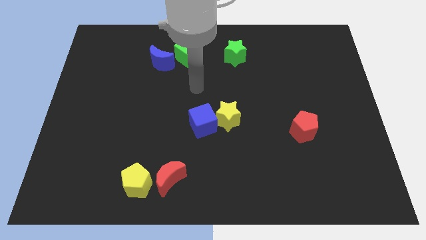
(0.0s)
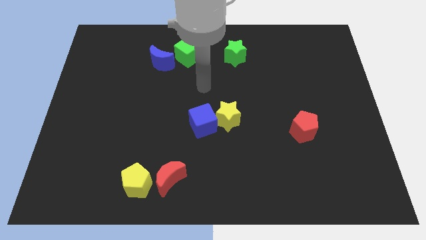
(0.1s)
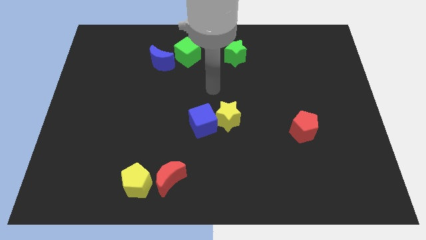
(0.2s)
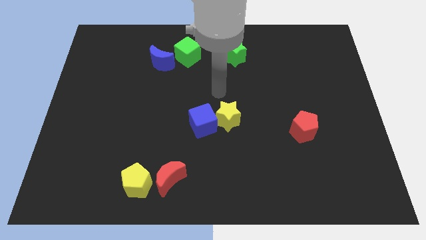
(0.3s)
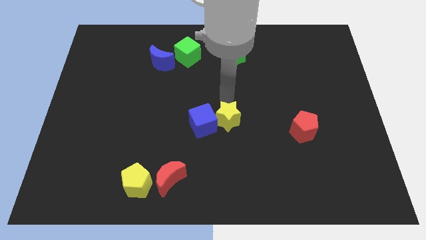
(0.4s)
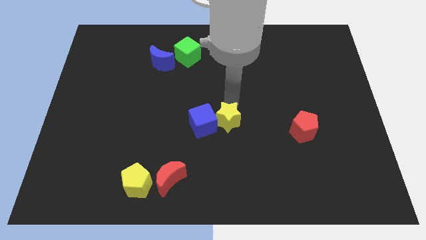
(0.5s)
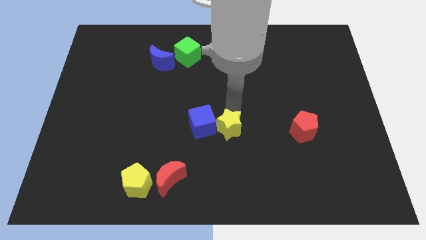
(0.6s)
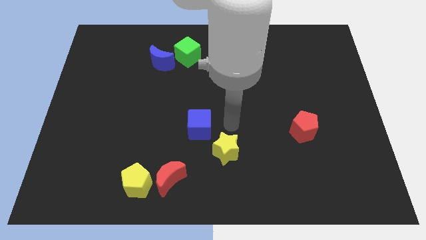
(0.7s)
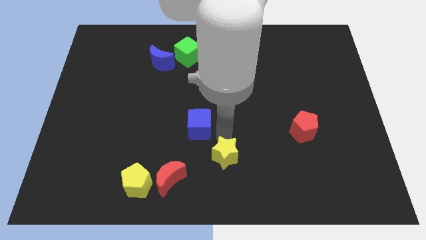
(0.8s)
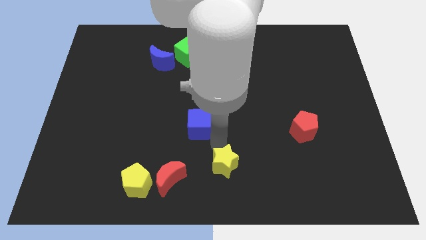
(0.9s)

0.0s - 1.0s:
move the blue cube away from the yellow star

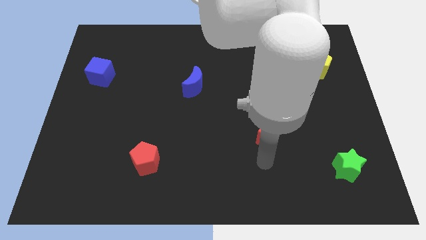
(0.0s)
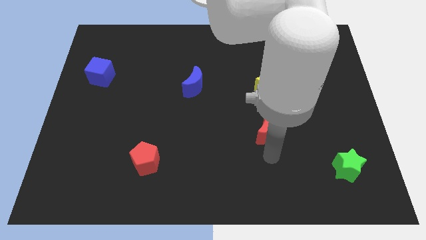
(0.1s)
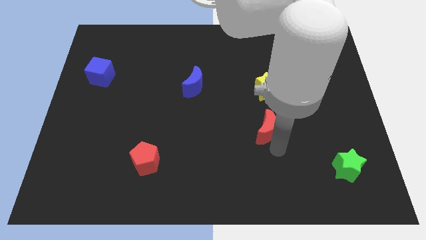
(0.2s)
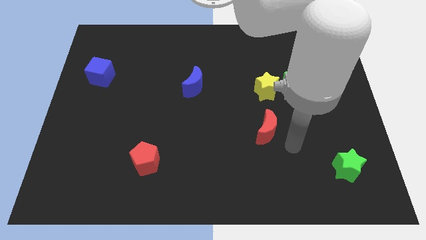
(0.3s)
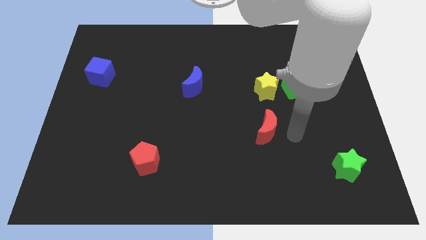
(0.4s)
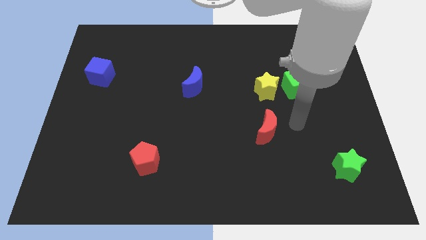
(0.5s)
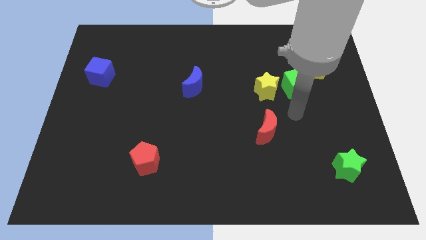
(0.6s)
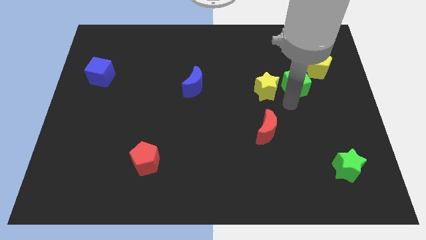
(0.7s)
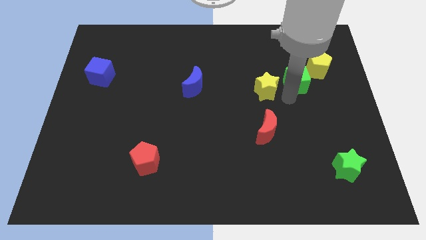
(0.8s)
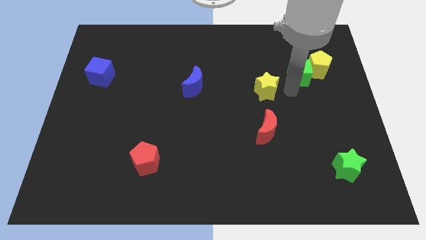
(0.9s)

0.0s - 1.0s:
pull the yellow star apart from the green cube

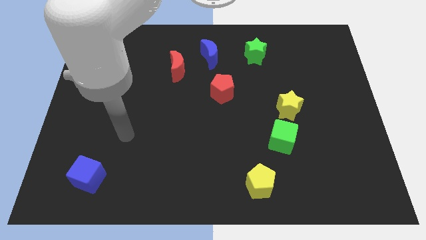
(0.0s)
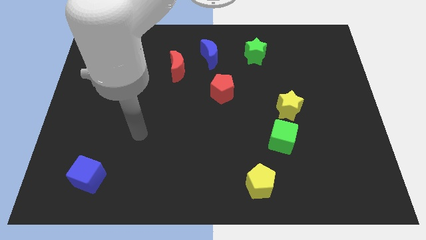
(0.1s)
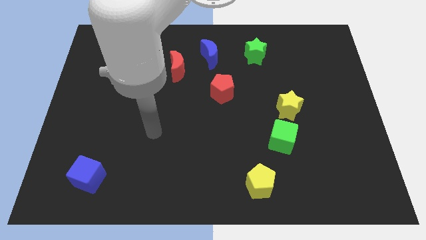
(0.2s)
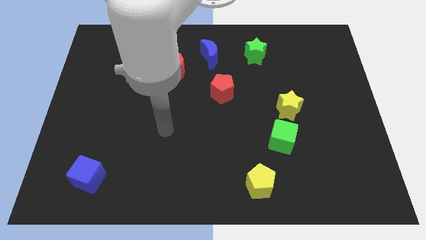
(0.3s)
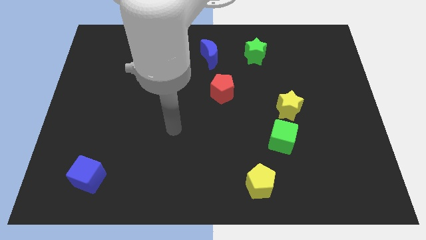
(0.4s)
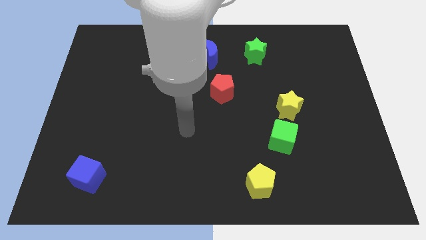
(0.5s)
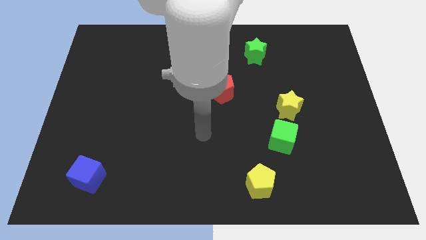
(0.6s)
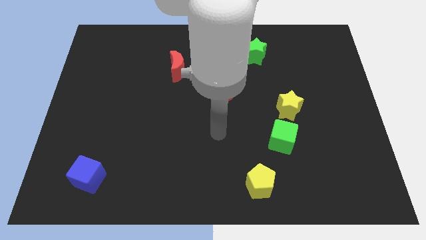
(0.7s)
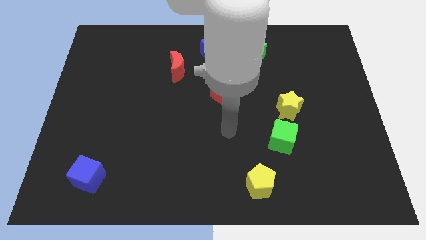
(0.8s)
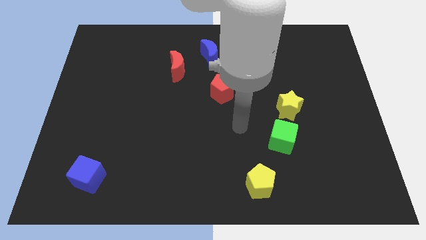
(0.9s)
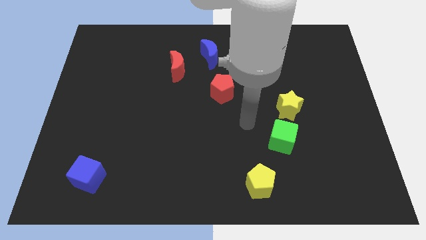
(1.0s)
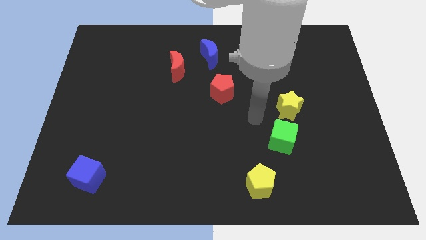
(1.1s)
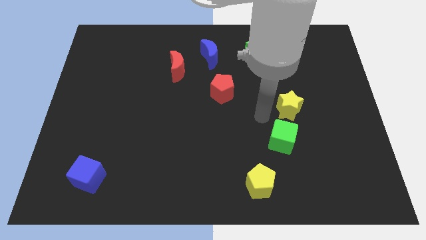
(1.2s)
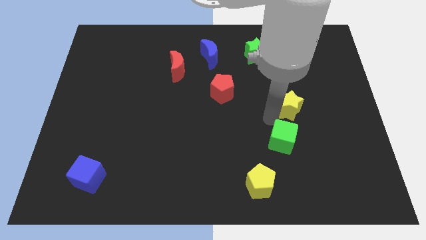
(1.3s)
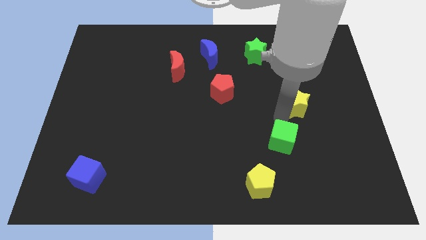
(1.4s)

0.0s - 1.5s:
separate the green cube from the yellow star

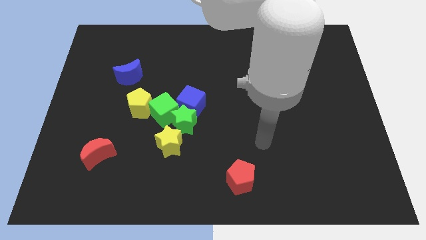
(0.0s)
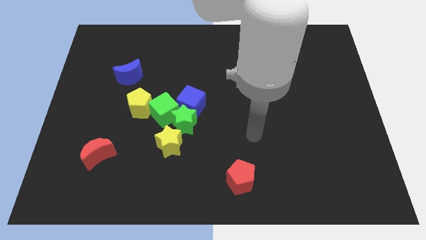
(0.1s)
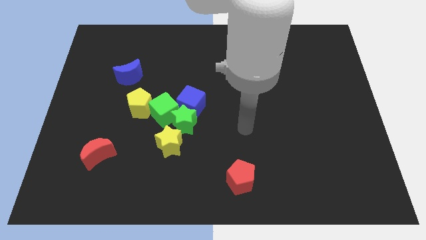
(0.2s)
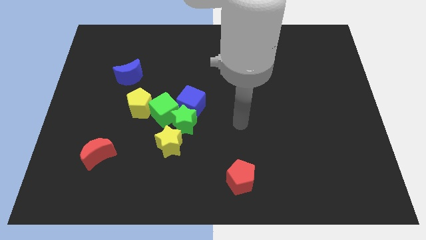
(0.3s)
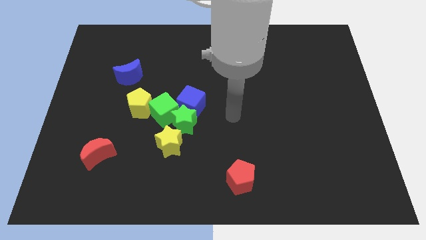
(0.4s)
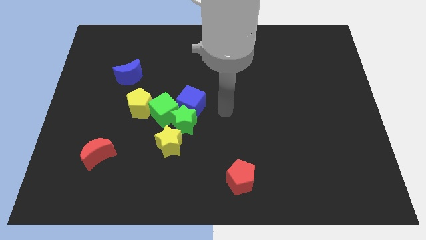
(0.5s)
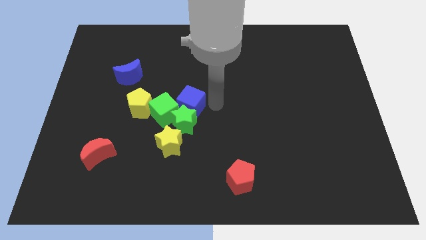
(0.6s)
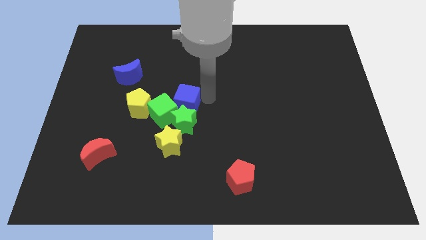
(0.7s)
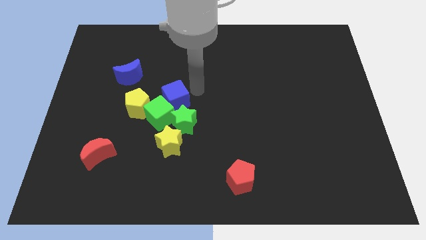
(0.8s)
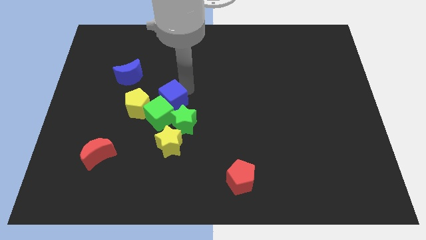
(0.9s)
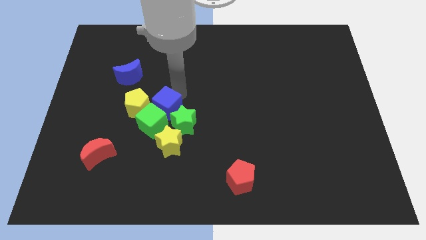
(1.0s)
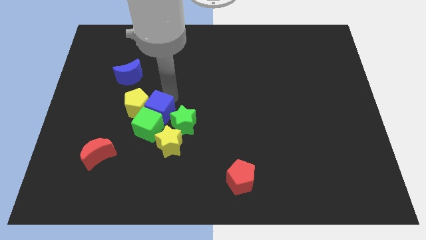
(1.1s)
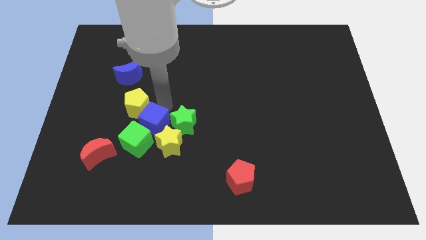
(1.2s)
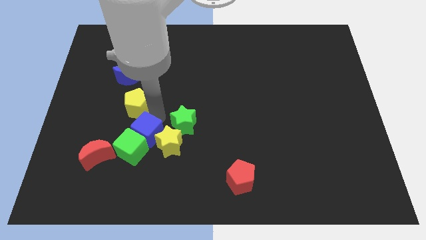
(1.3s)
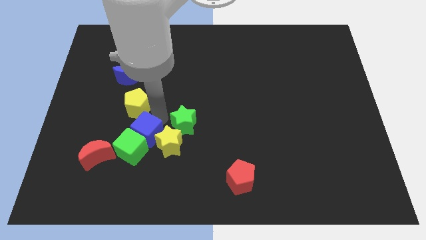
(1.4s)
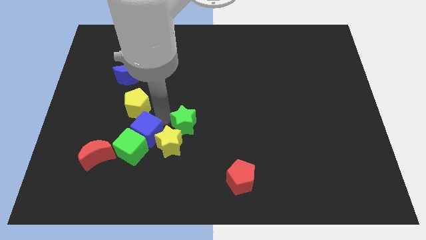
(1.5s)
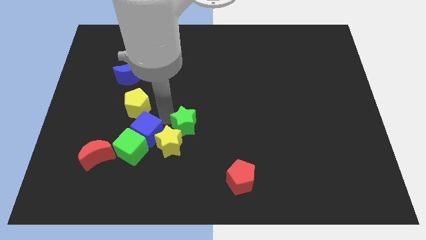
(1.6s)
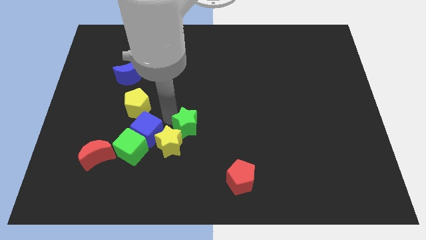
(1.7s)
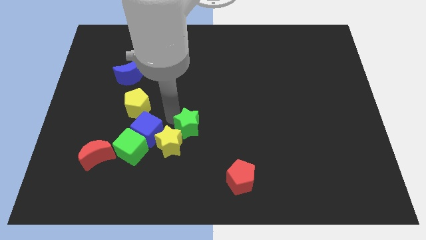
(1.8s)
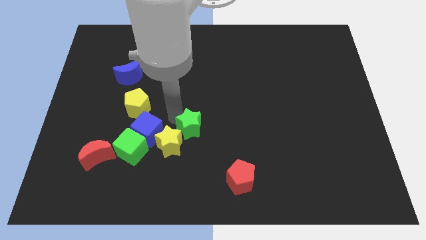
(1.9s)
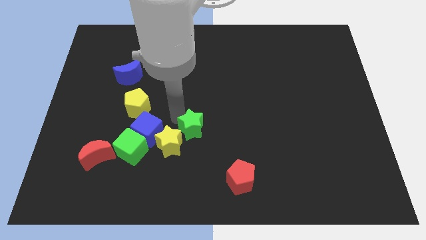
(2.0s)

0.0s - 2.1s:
pull the green star apart from the clump

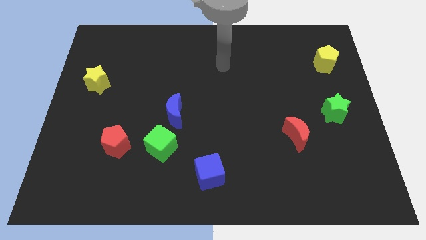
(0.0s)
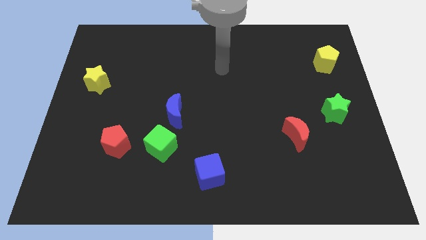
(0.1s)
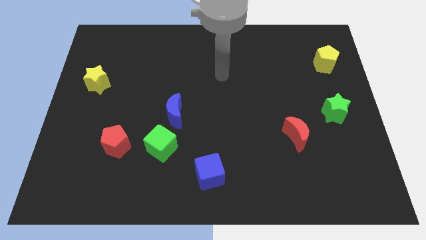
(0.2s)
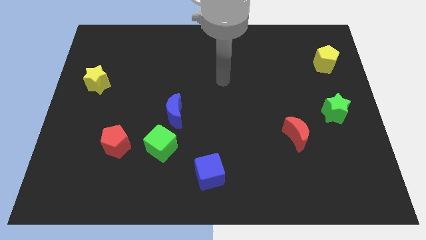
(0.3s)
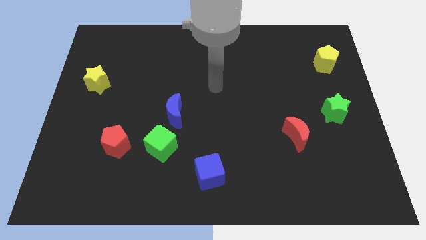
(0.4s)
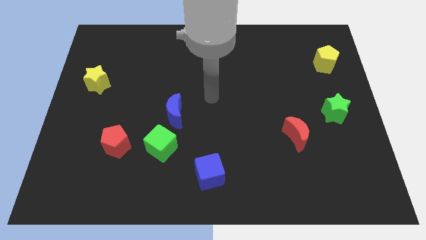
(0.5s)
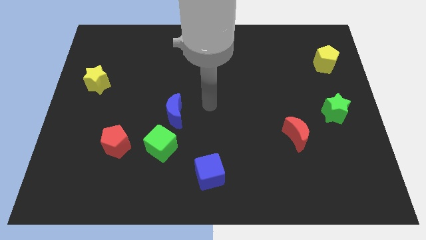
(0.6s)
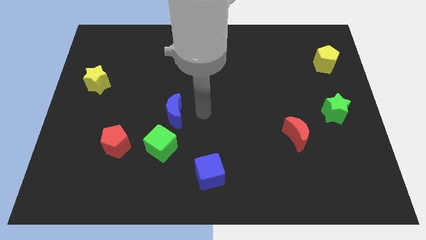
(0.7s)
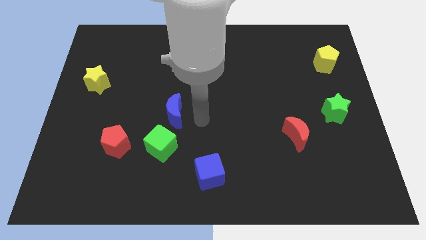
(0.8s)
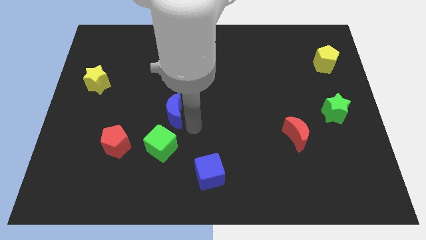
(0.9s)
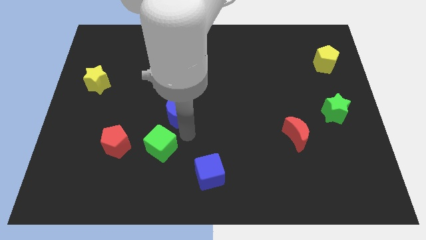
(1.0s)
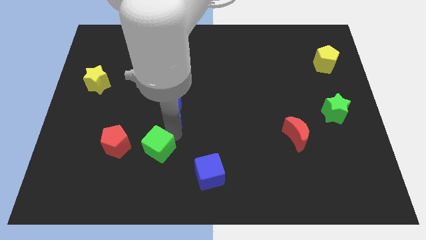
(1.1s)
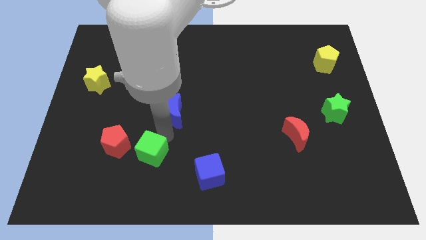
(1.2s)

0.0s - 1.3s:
separate the blue moon from the green cube

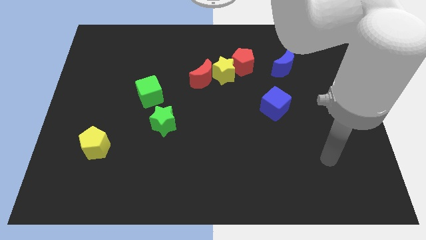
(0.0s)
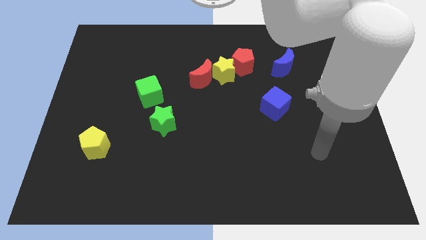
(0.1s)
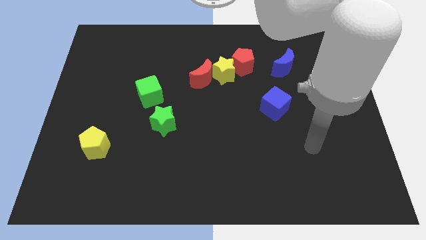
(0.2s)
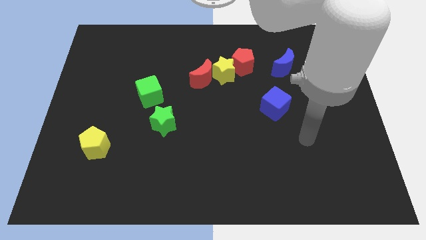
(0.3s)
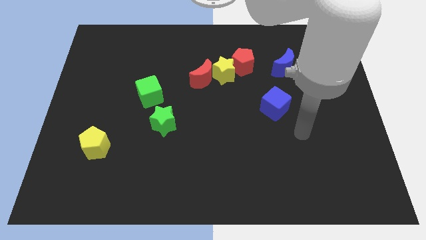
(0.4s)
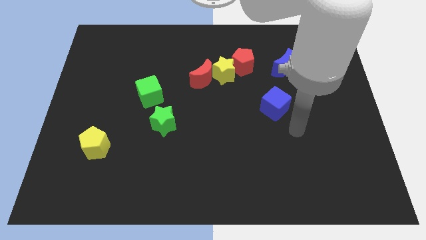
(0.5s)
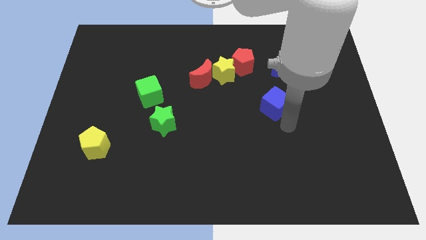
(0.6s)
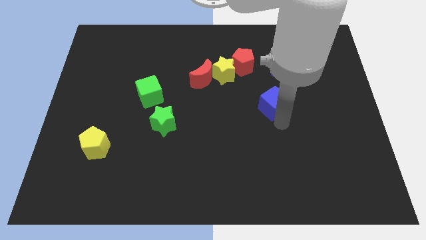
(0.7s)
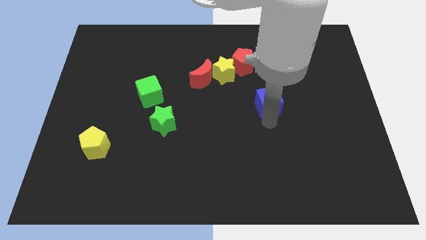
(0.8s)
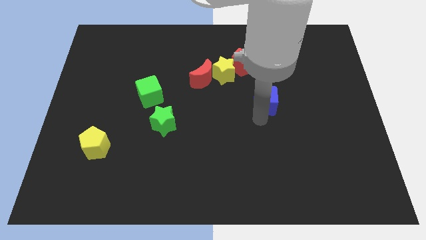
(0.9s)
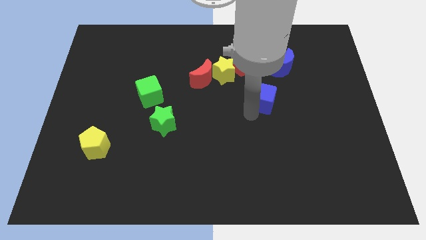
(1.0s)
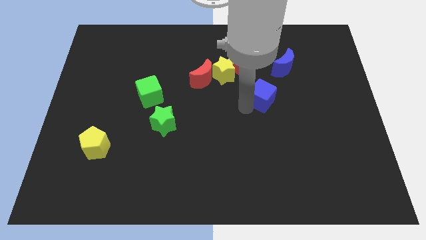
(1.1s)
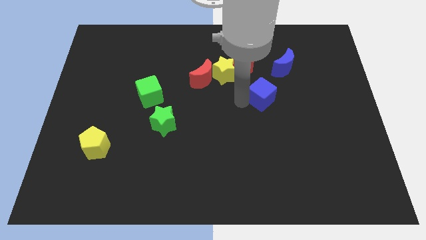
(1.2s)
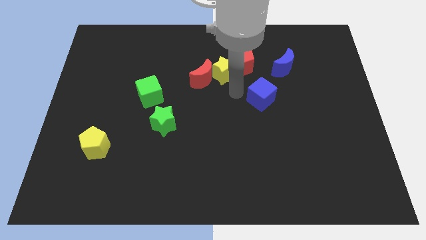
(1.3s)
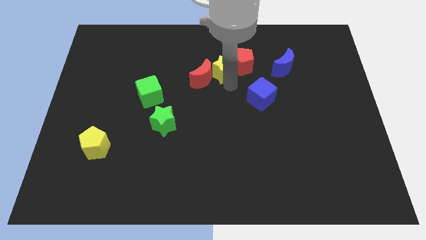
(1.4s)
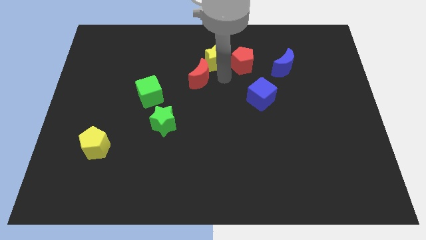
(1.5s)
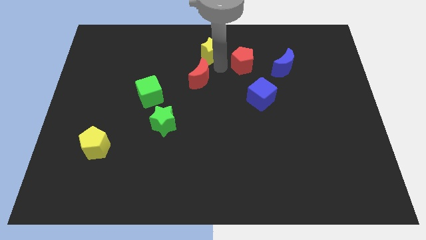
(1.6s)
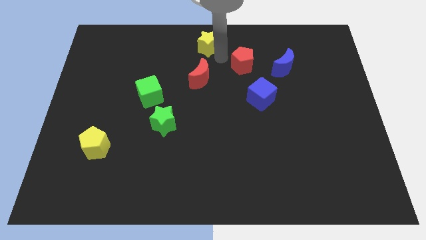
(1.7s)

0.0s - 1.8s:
separate the red pentagon from the yellow star

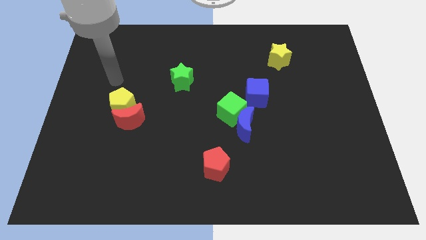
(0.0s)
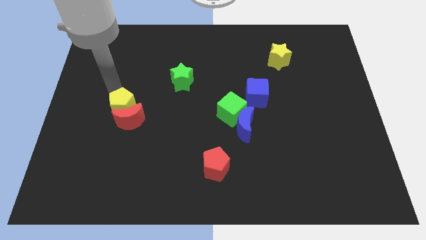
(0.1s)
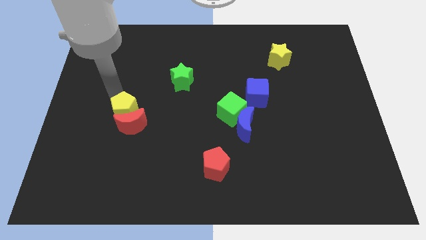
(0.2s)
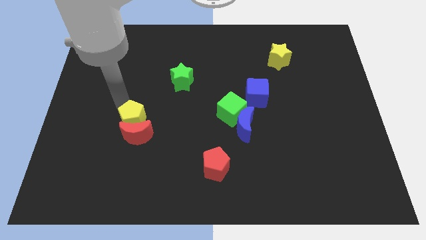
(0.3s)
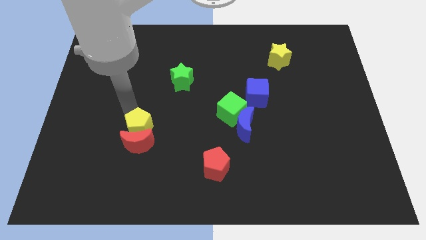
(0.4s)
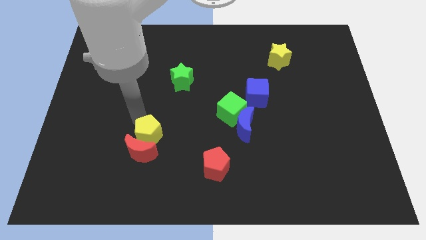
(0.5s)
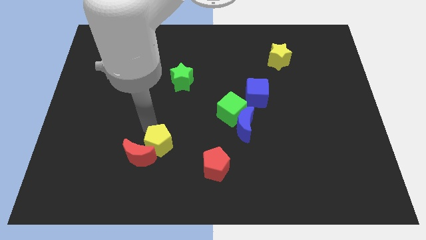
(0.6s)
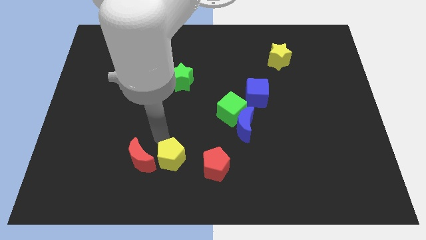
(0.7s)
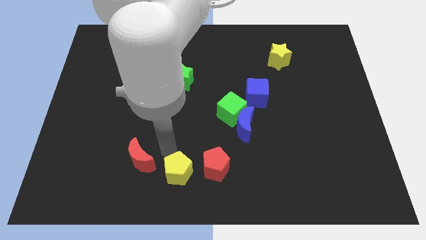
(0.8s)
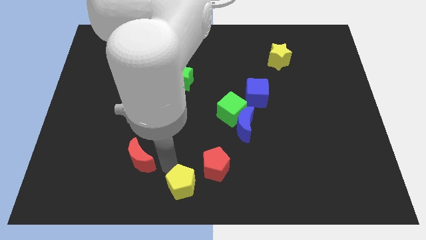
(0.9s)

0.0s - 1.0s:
separate the red moon from the yellow pentagon
